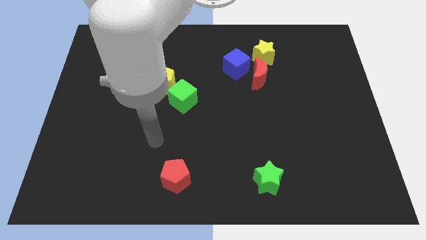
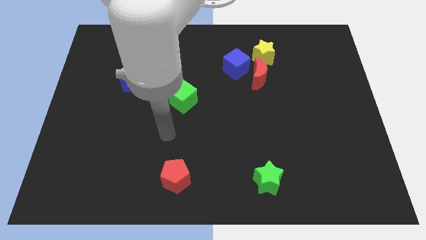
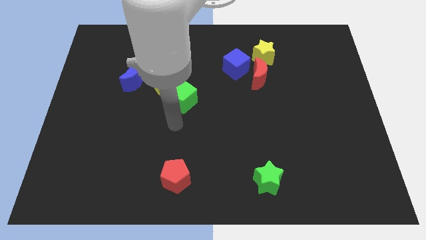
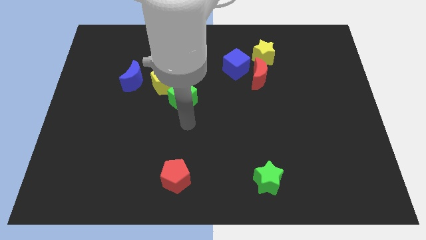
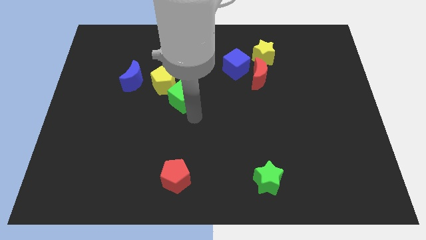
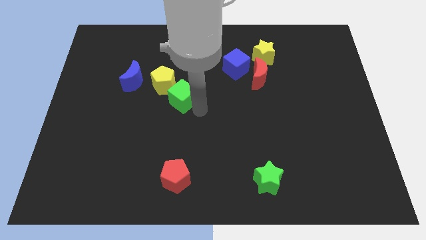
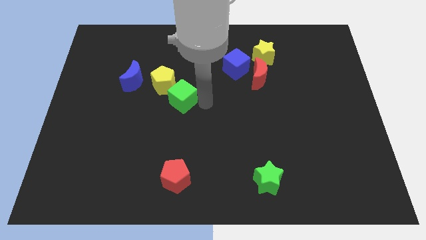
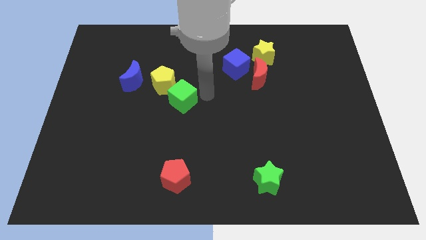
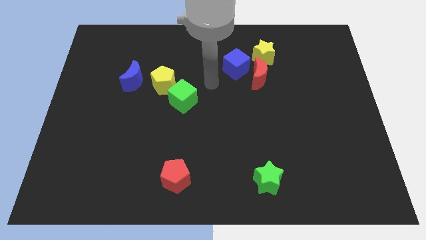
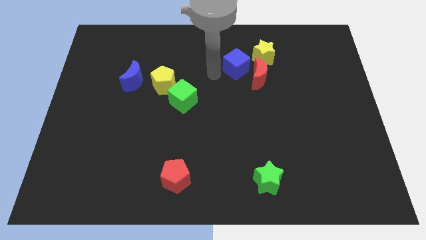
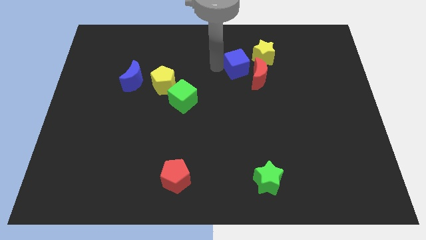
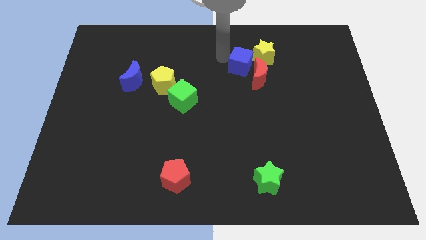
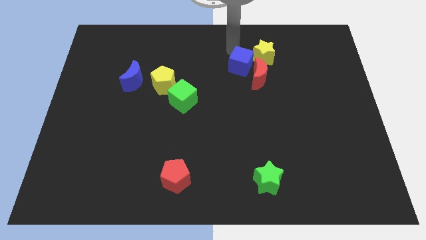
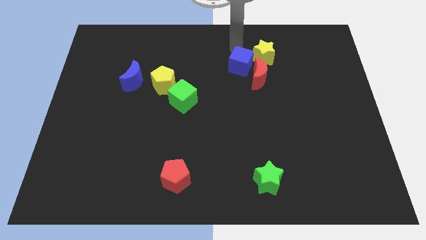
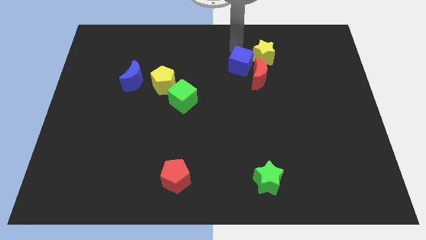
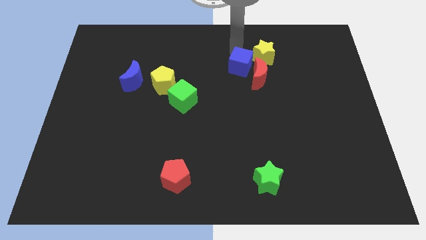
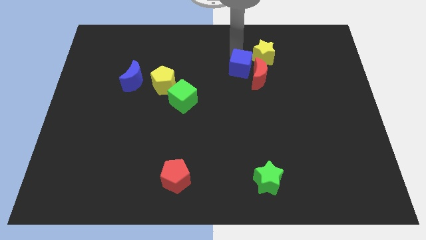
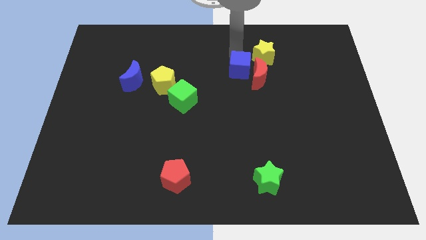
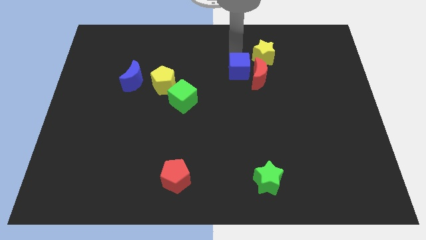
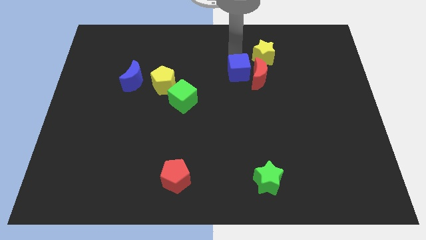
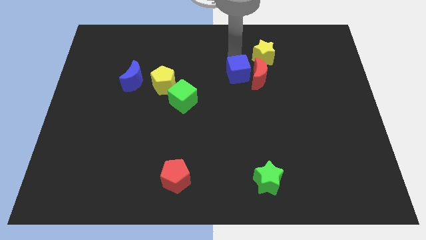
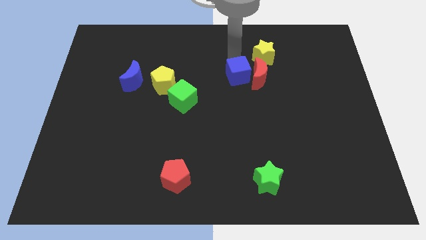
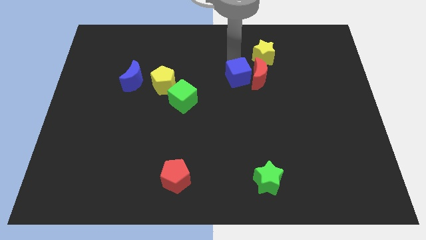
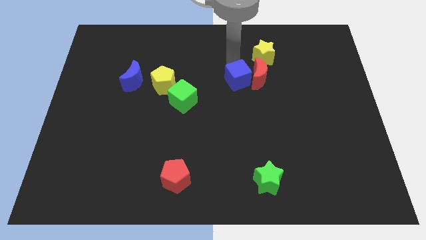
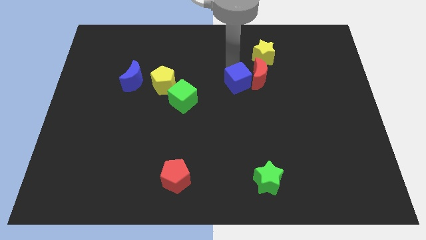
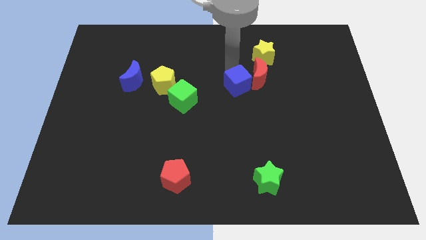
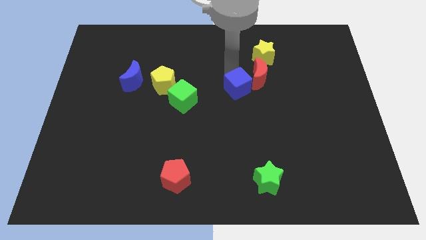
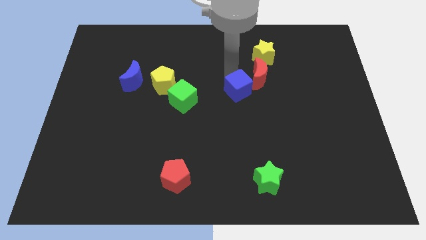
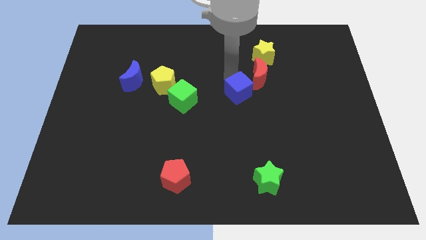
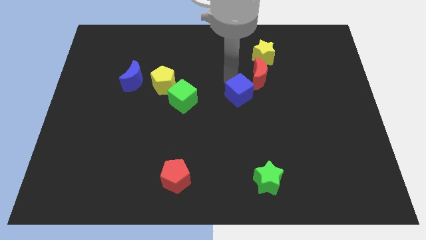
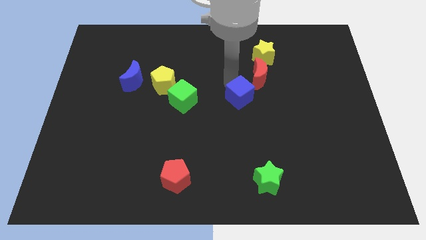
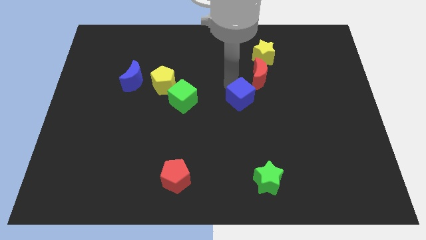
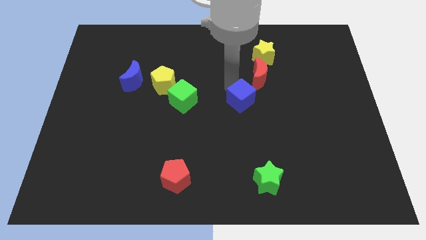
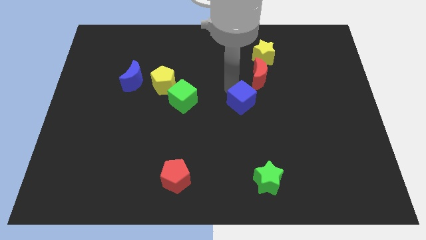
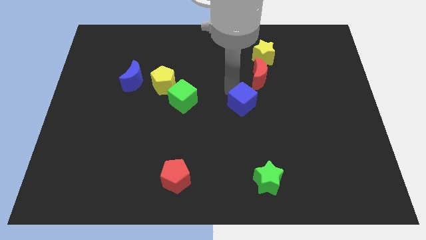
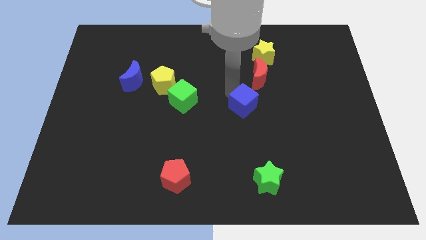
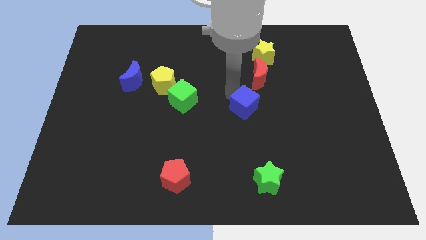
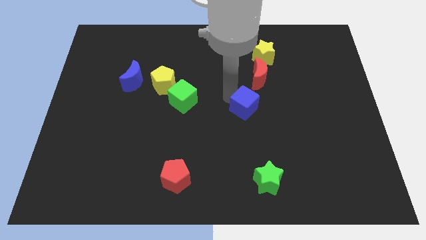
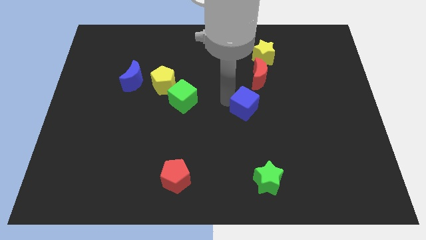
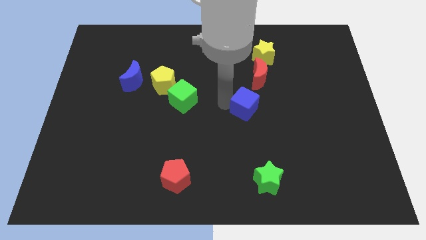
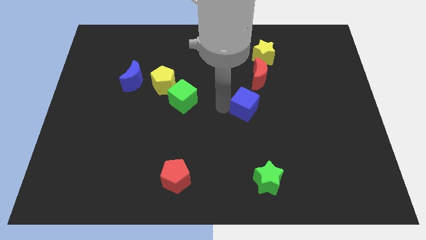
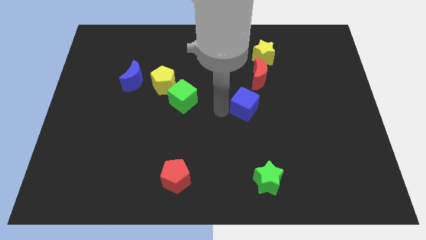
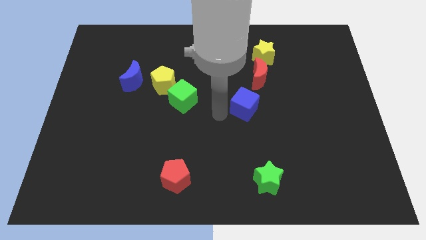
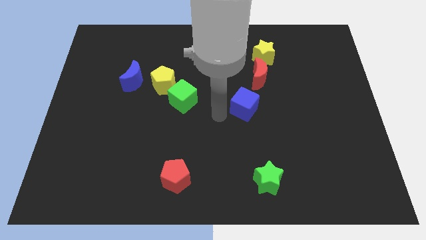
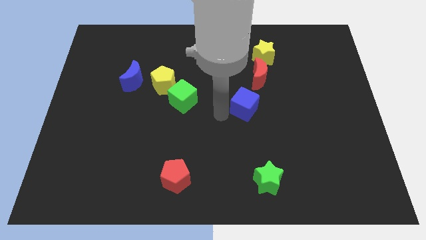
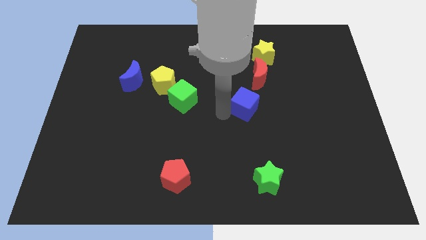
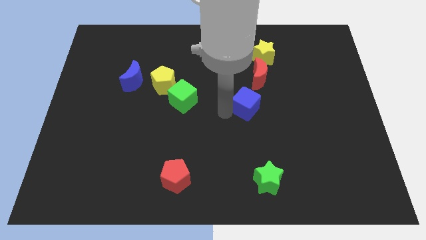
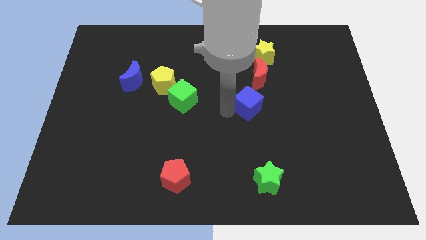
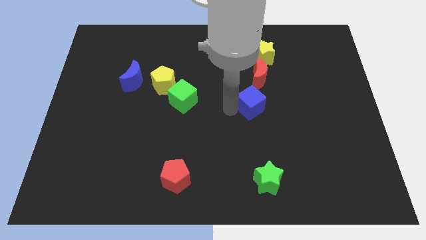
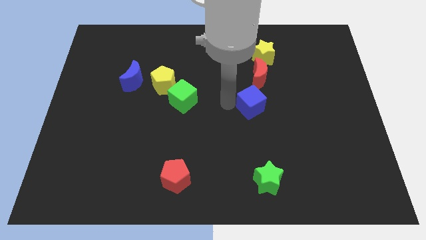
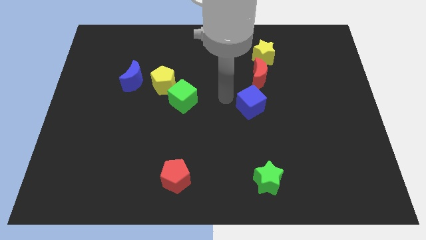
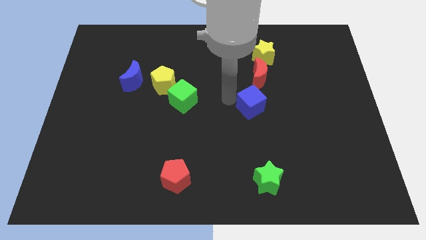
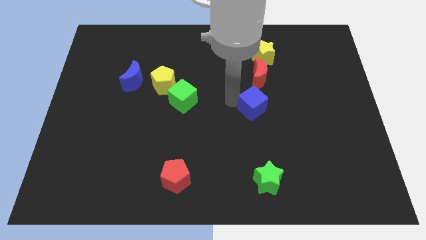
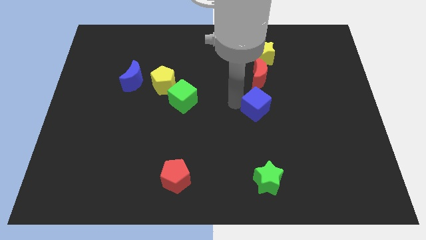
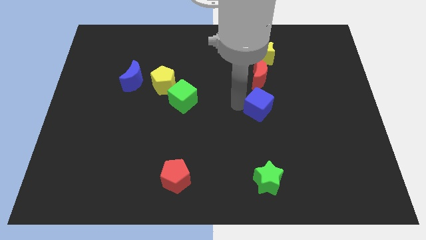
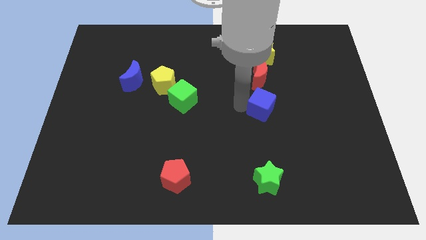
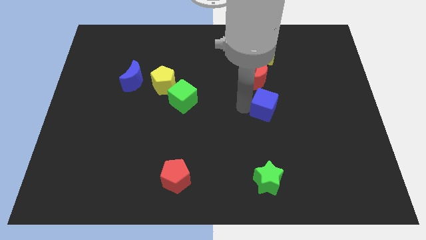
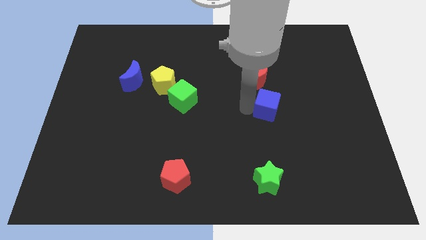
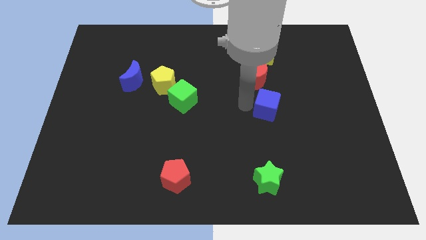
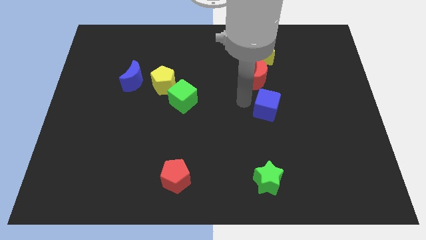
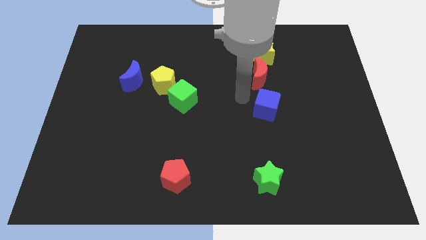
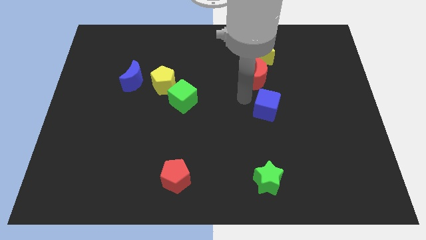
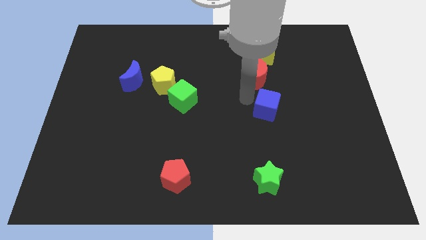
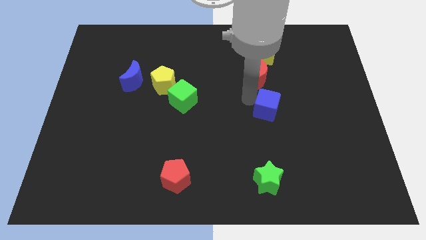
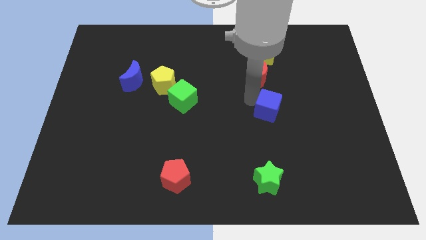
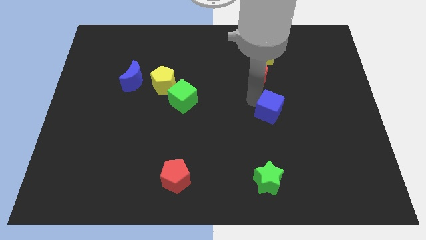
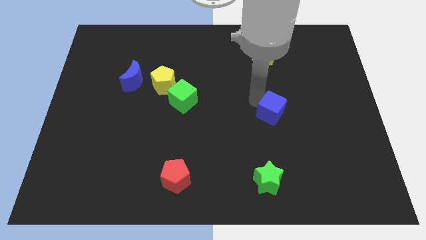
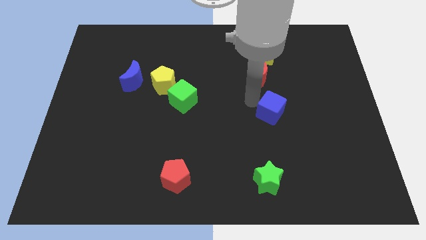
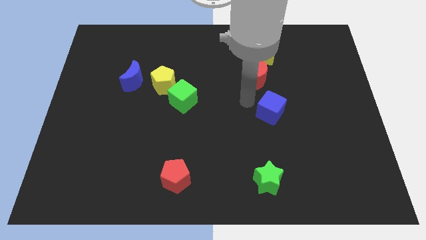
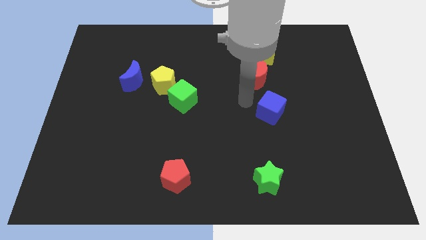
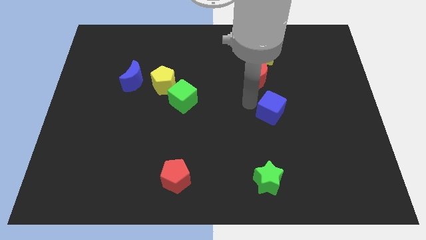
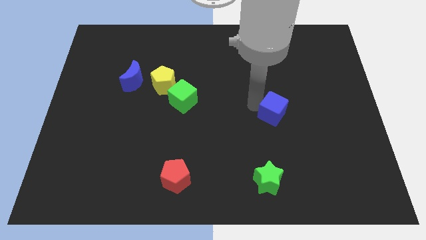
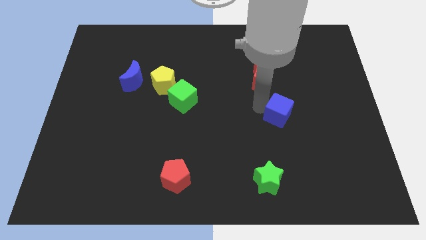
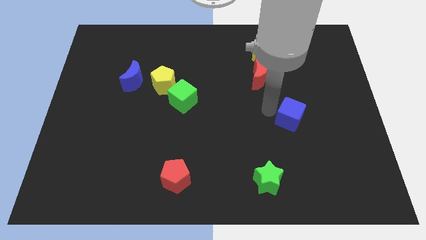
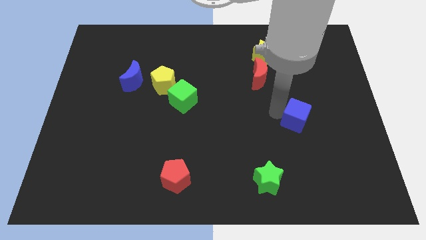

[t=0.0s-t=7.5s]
move the blue cube down and right diagonally

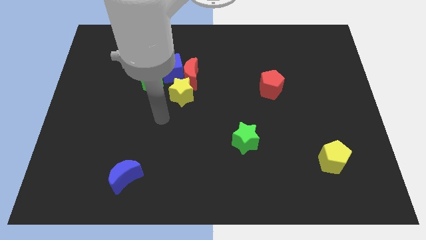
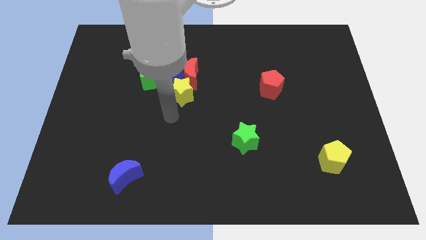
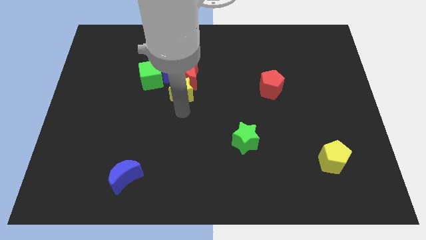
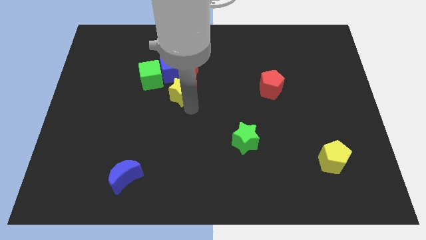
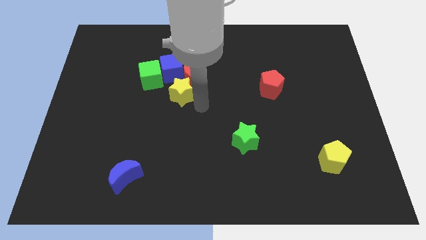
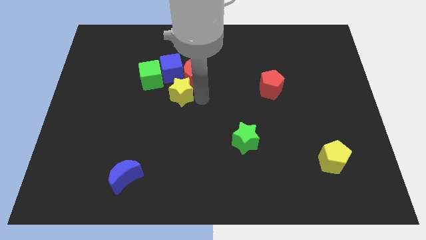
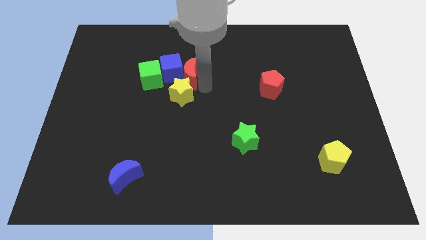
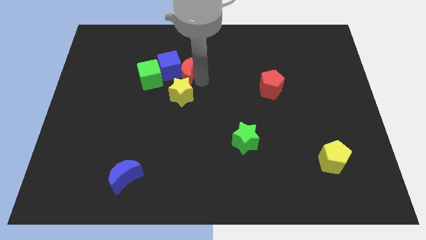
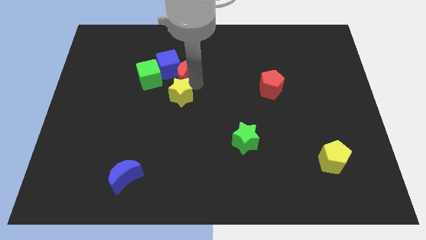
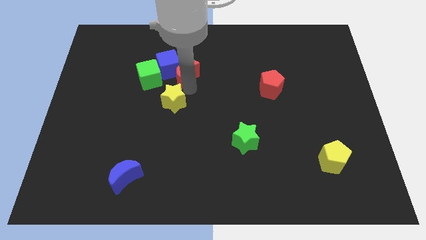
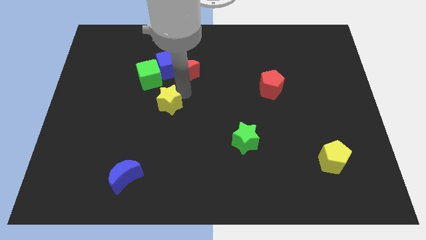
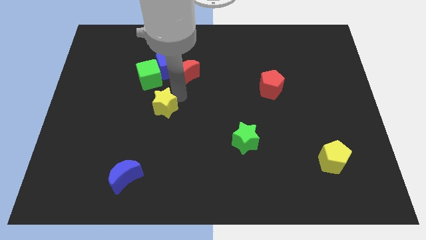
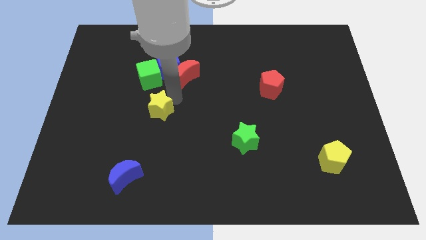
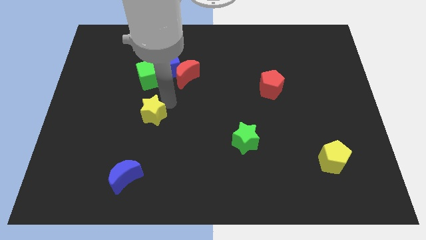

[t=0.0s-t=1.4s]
slide the yellow star diagonally downwards and left somewhat
